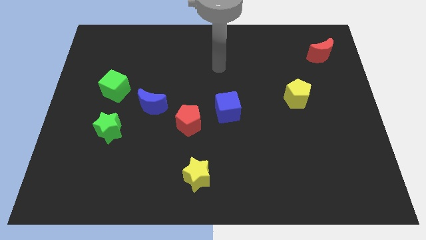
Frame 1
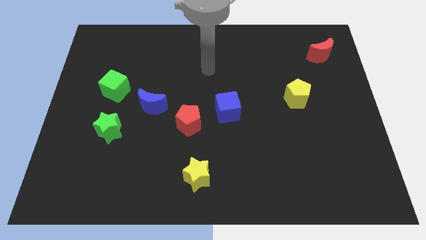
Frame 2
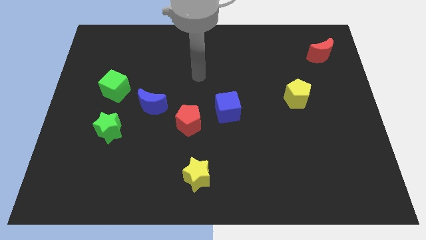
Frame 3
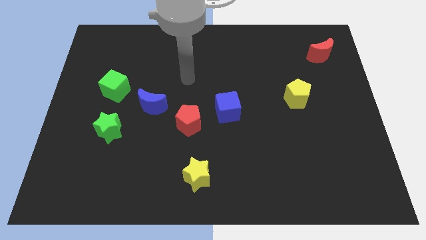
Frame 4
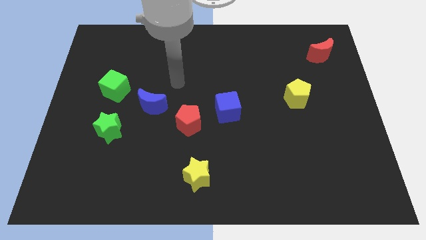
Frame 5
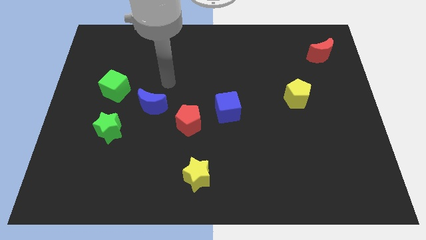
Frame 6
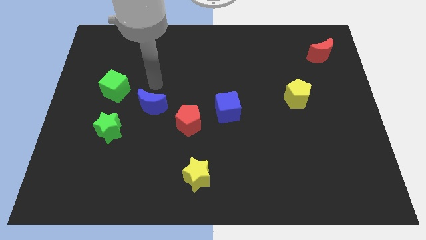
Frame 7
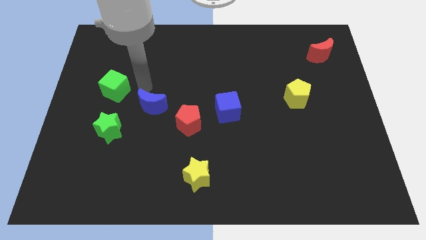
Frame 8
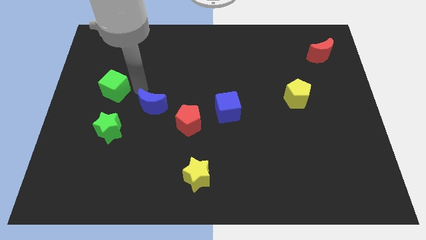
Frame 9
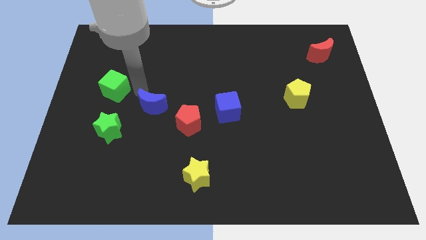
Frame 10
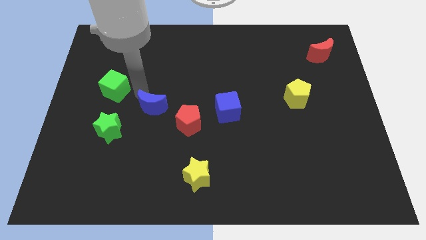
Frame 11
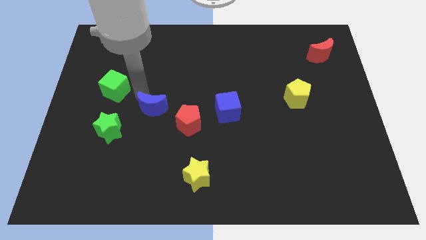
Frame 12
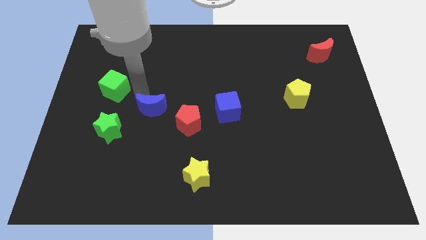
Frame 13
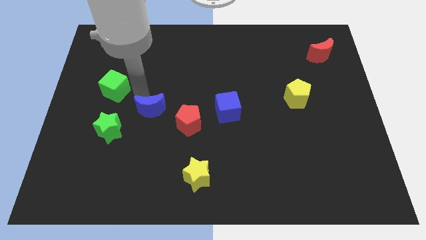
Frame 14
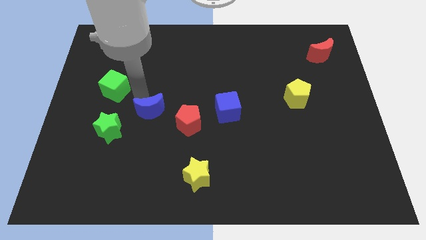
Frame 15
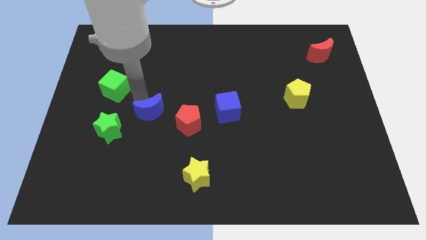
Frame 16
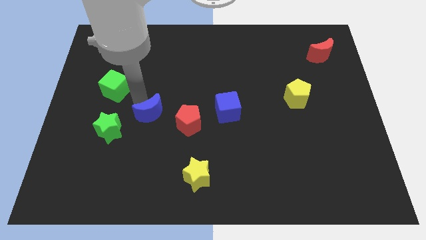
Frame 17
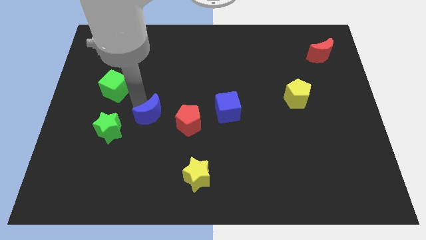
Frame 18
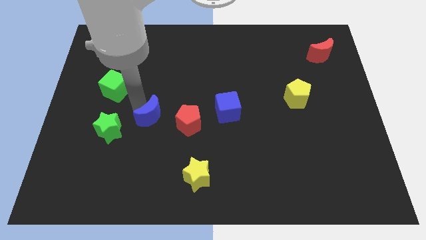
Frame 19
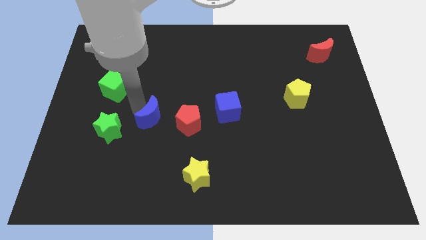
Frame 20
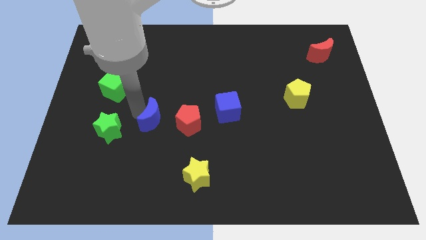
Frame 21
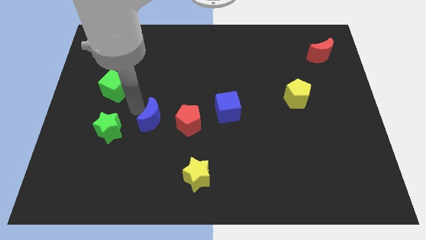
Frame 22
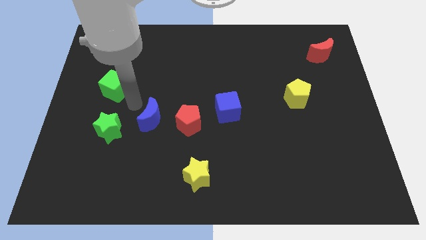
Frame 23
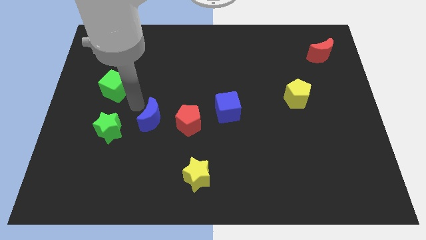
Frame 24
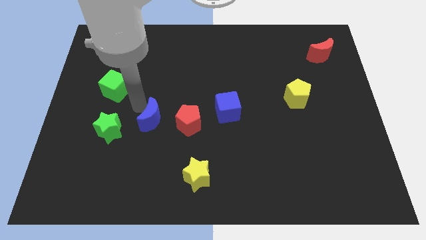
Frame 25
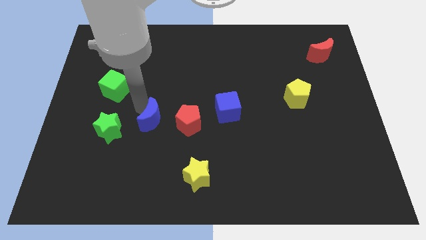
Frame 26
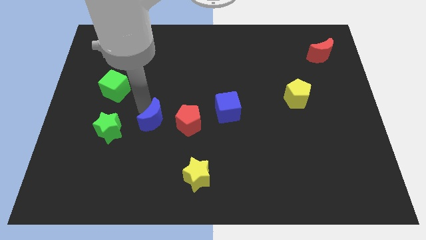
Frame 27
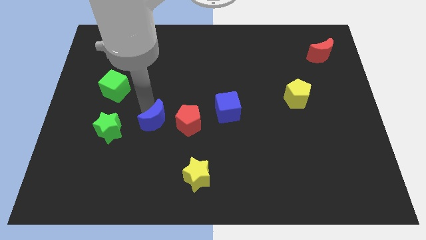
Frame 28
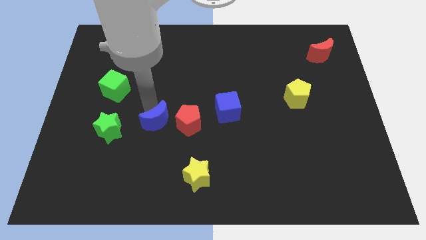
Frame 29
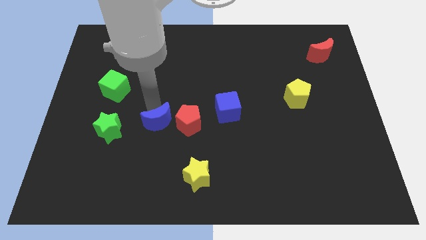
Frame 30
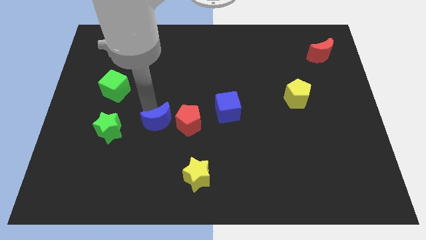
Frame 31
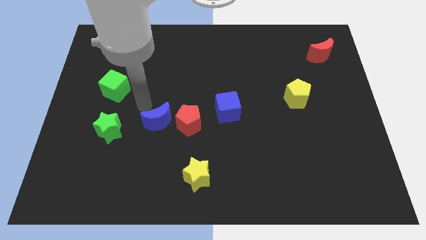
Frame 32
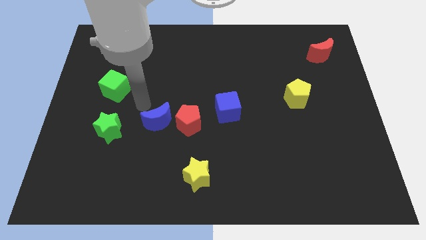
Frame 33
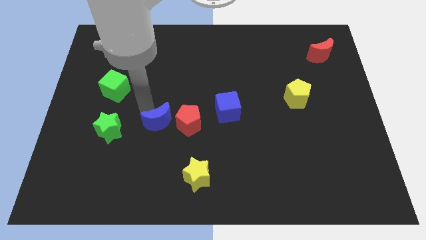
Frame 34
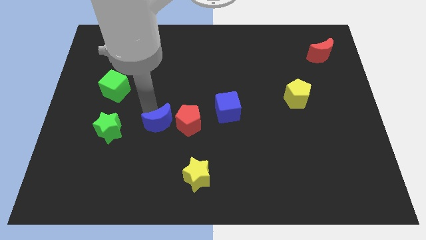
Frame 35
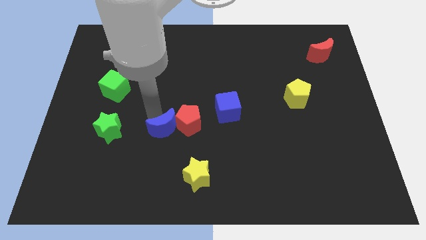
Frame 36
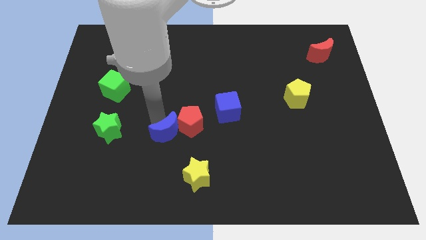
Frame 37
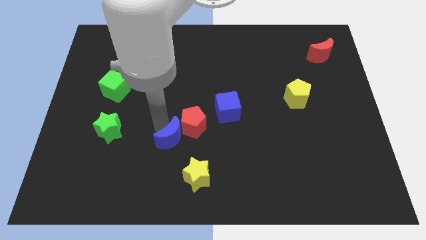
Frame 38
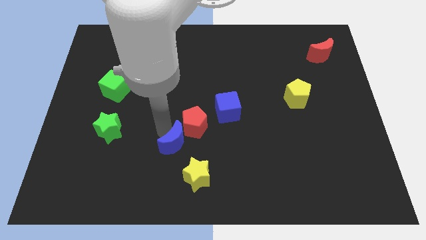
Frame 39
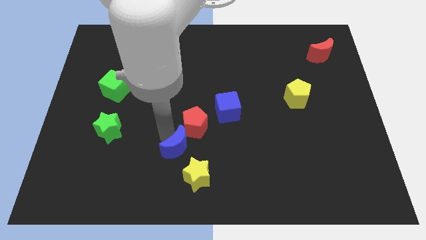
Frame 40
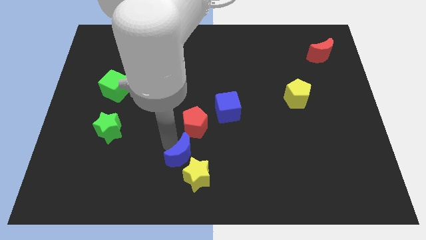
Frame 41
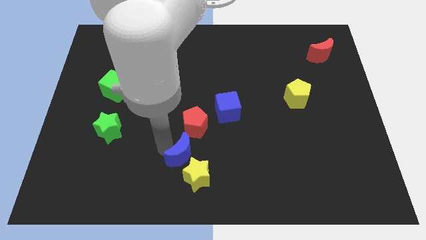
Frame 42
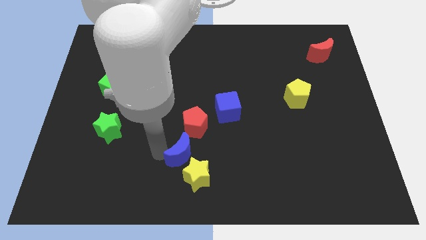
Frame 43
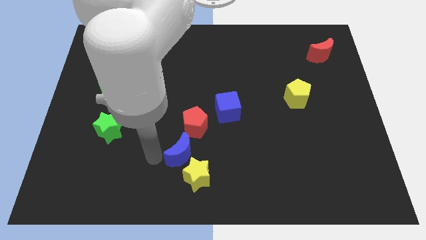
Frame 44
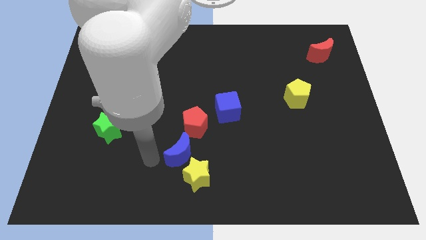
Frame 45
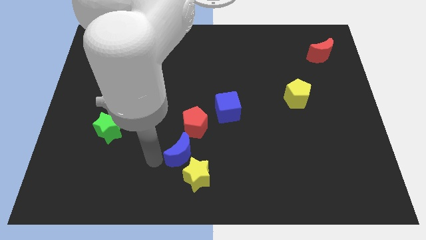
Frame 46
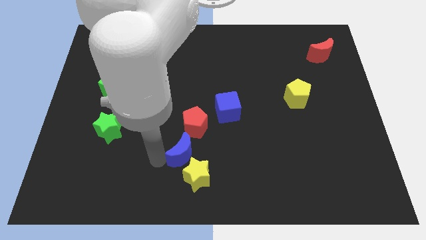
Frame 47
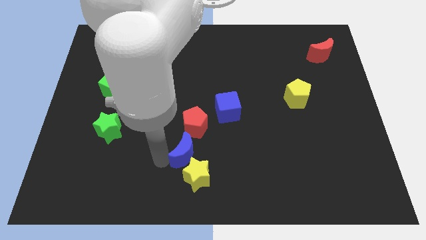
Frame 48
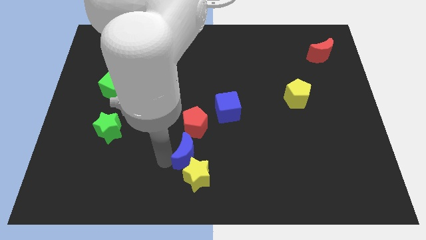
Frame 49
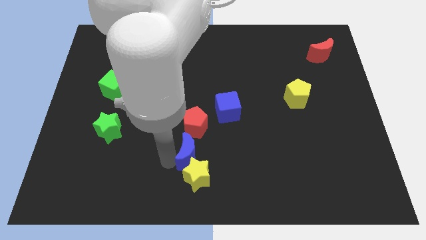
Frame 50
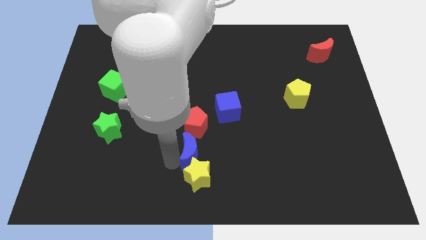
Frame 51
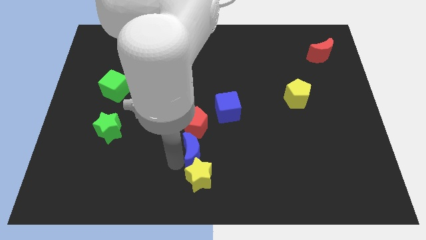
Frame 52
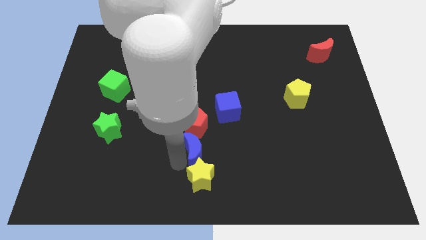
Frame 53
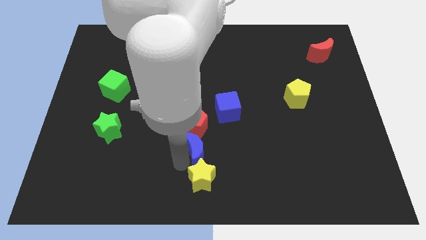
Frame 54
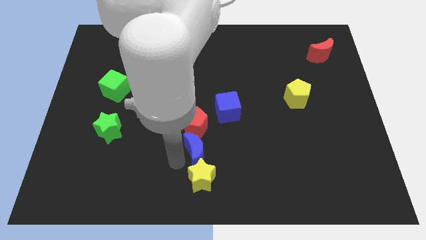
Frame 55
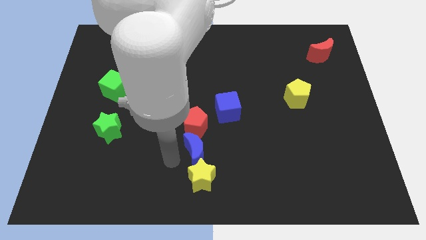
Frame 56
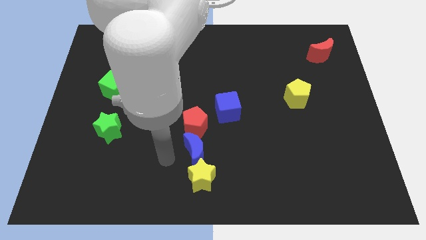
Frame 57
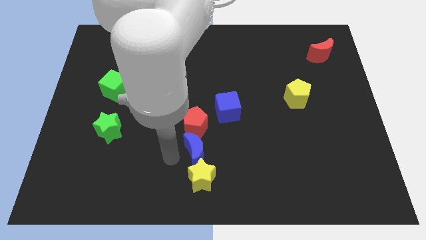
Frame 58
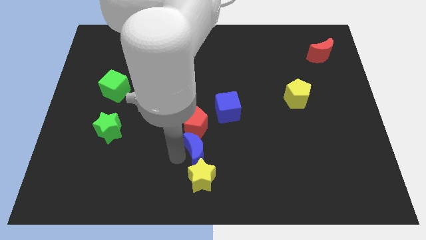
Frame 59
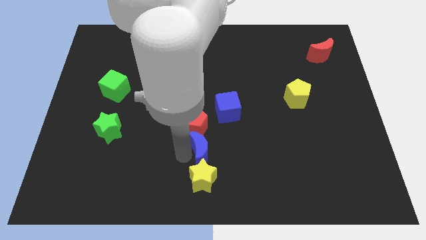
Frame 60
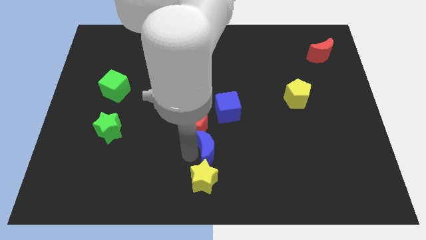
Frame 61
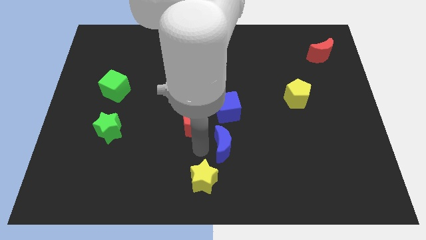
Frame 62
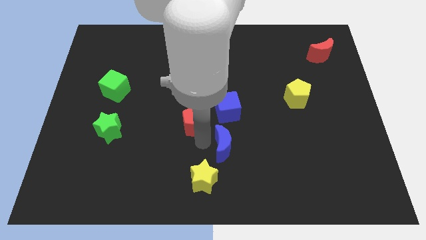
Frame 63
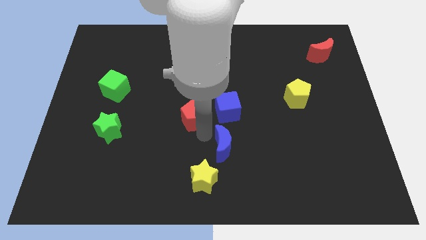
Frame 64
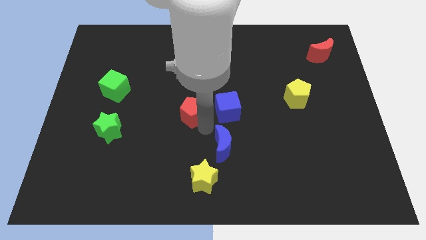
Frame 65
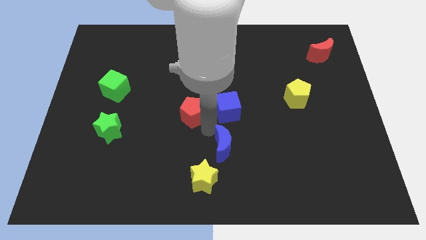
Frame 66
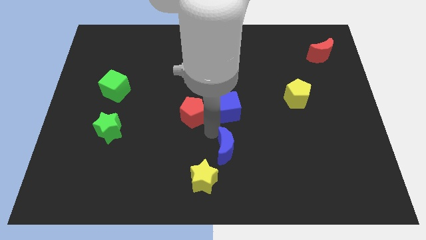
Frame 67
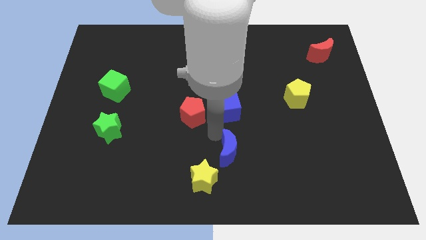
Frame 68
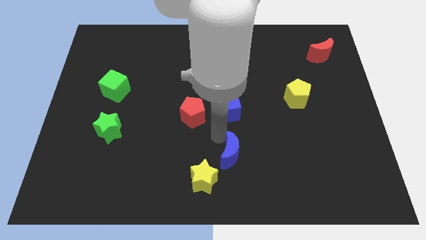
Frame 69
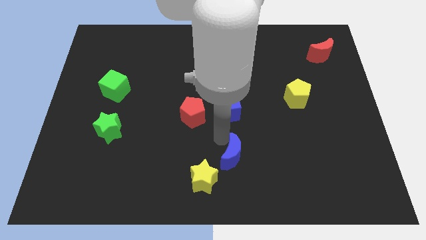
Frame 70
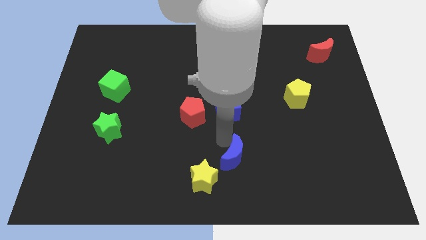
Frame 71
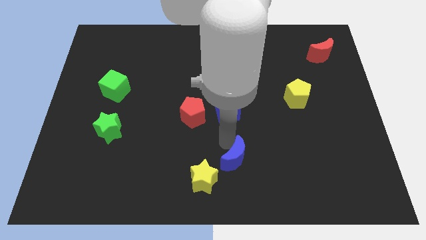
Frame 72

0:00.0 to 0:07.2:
push the blue moon just right of the yellow star
